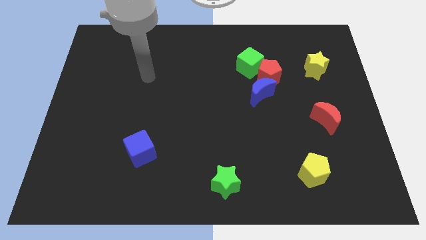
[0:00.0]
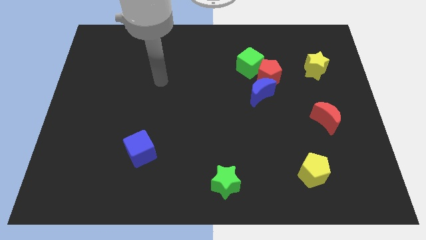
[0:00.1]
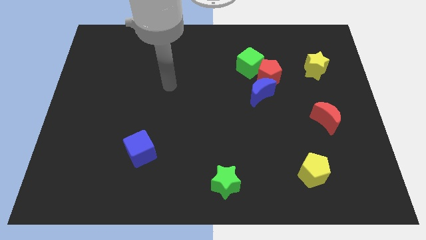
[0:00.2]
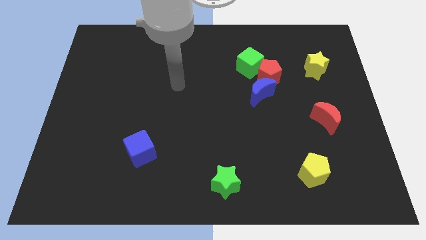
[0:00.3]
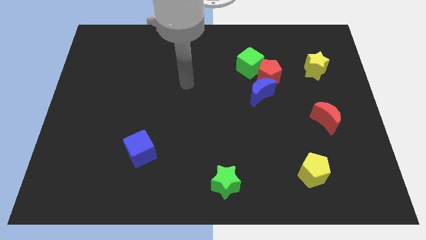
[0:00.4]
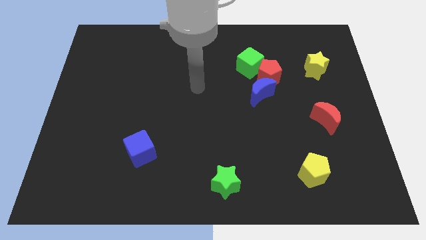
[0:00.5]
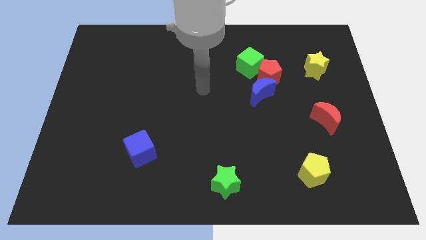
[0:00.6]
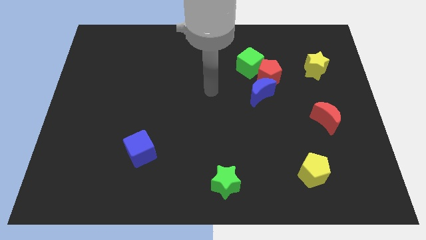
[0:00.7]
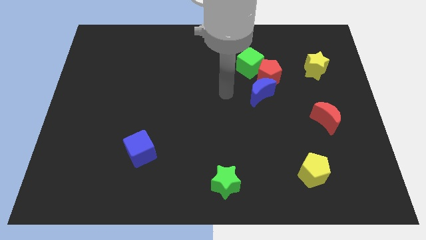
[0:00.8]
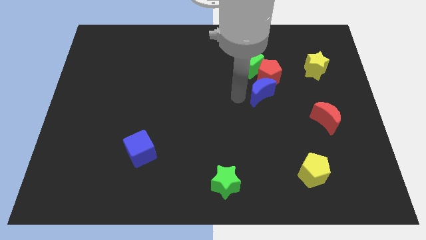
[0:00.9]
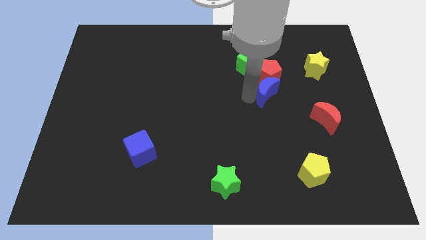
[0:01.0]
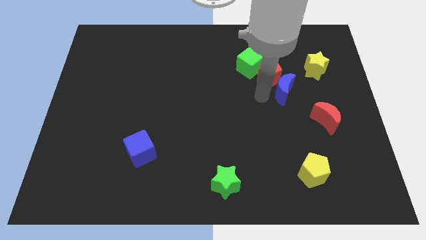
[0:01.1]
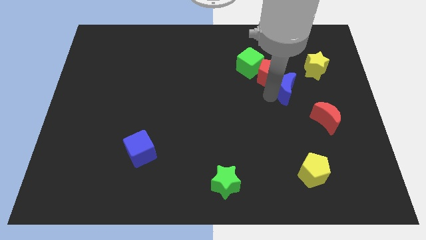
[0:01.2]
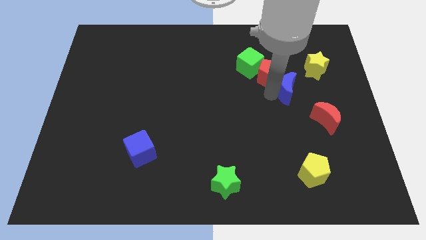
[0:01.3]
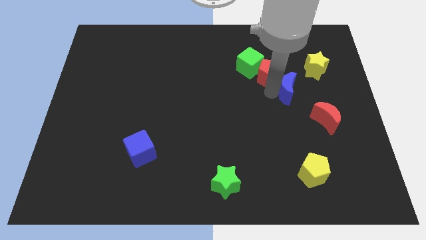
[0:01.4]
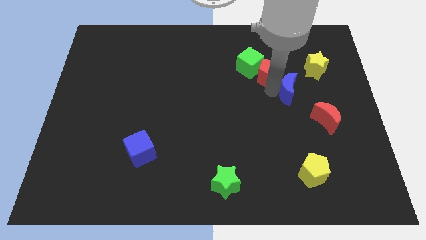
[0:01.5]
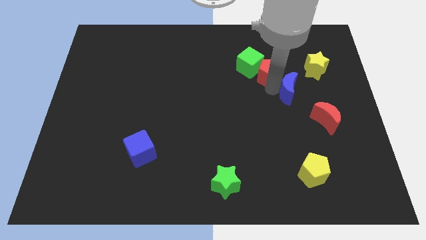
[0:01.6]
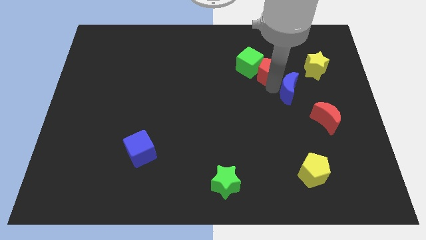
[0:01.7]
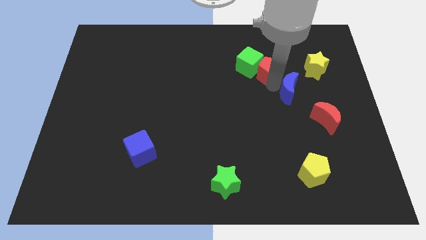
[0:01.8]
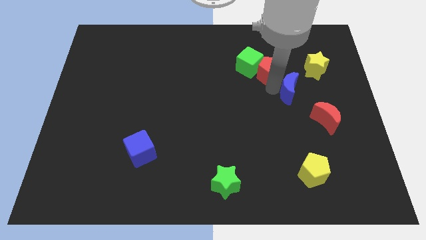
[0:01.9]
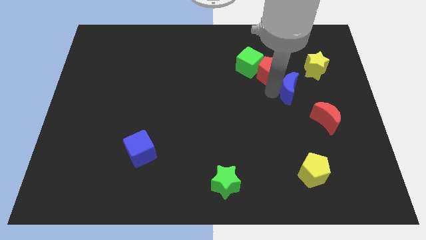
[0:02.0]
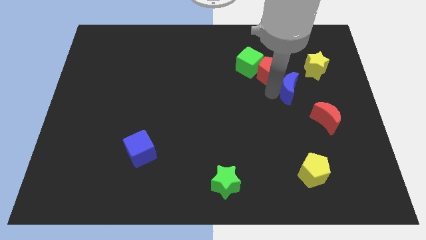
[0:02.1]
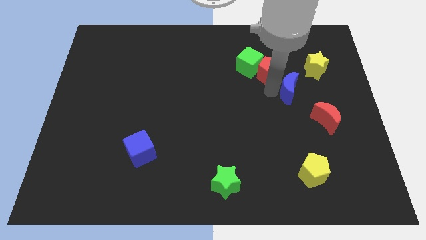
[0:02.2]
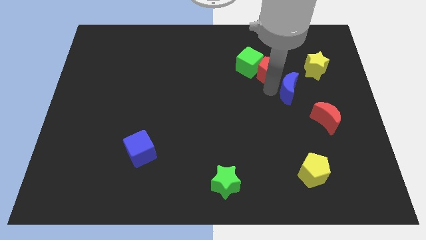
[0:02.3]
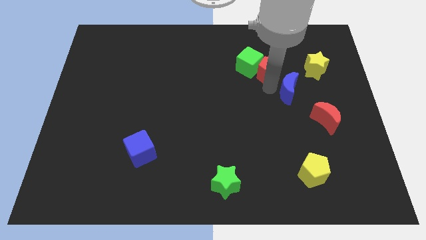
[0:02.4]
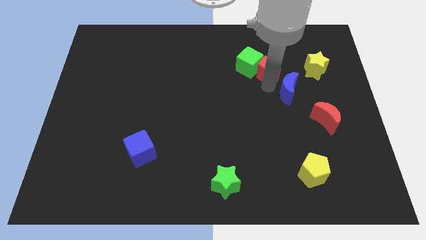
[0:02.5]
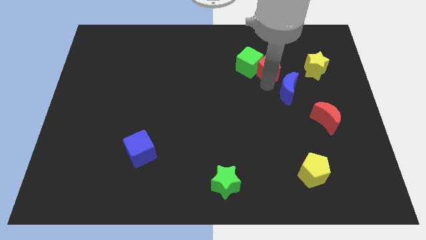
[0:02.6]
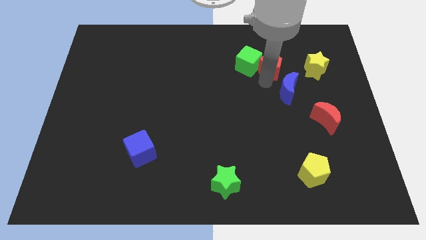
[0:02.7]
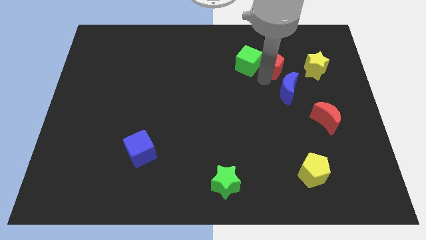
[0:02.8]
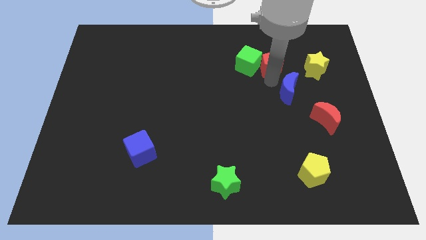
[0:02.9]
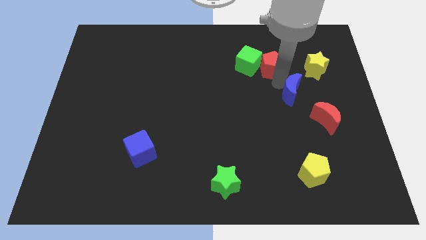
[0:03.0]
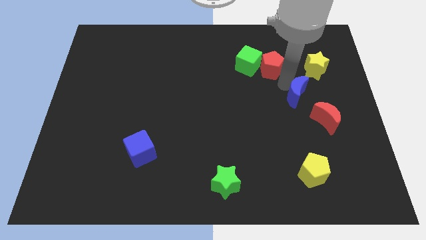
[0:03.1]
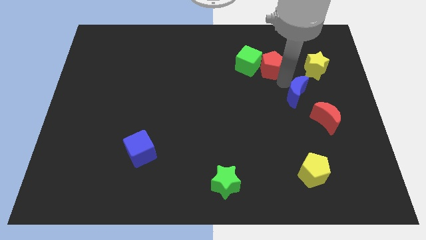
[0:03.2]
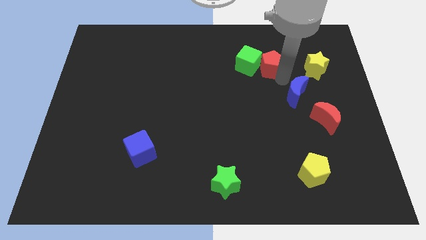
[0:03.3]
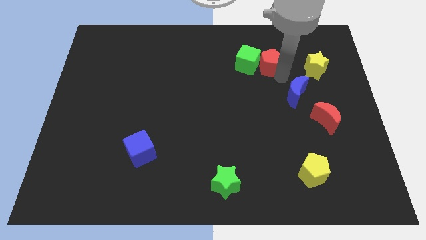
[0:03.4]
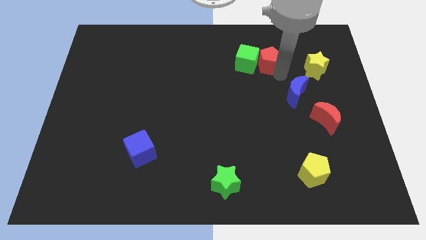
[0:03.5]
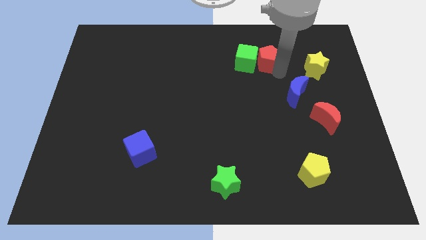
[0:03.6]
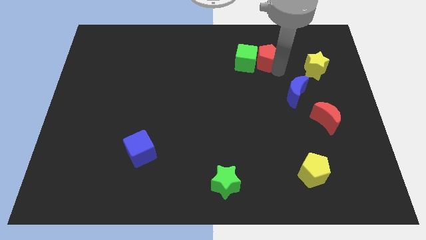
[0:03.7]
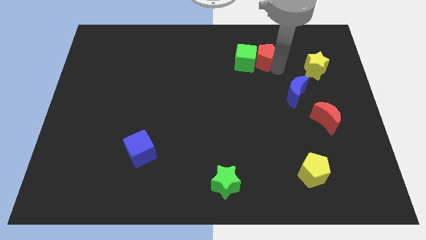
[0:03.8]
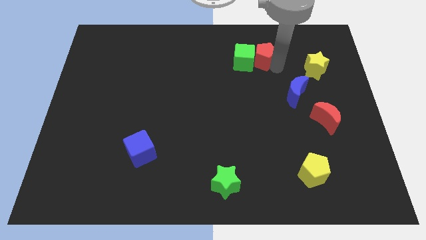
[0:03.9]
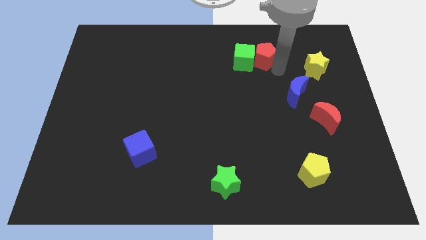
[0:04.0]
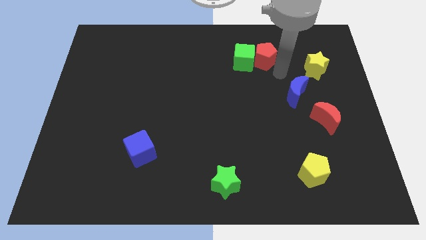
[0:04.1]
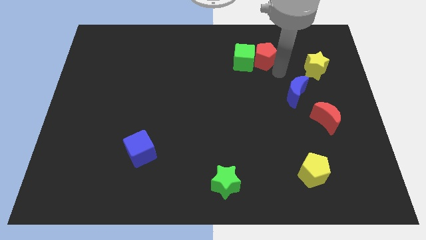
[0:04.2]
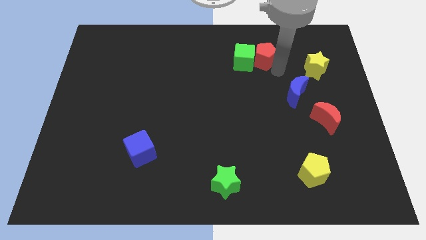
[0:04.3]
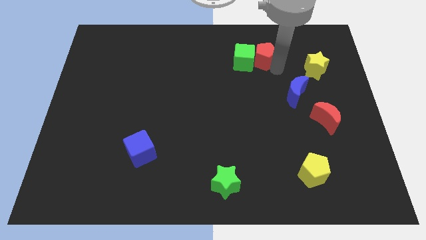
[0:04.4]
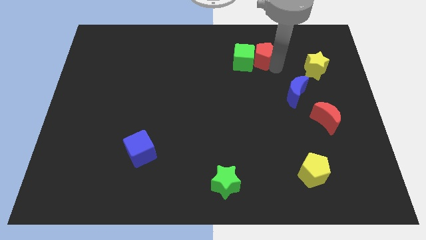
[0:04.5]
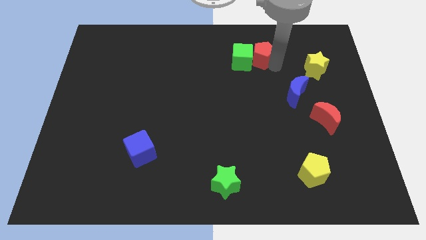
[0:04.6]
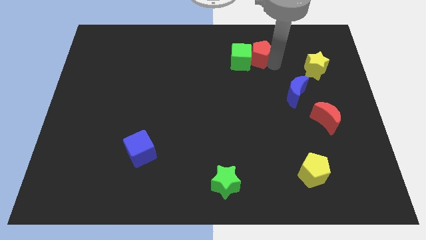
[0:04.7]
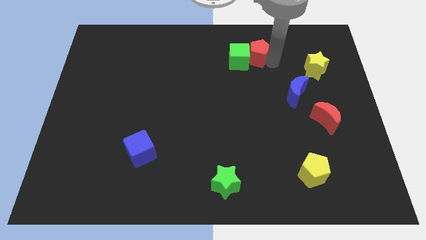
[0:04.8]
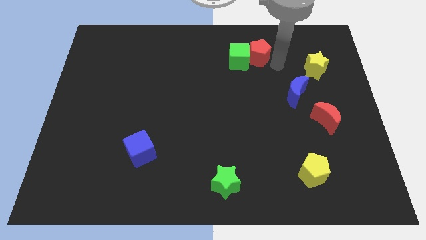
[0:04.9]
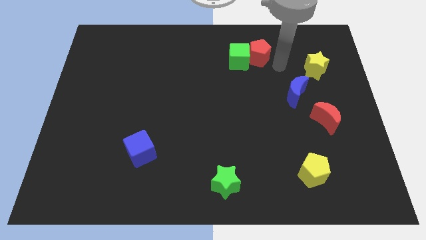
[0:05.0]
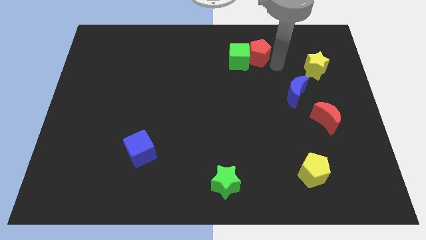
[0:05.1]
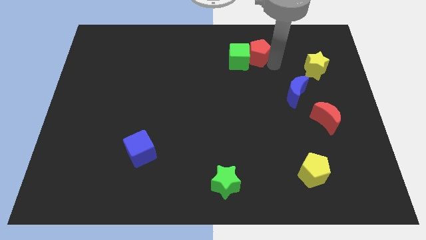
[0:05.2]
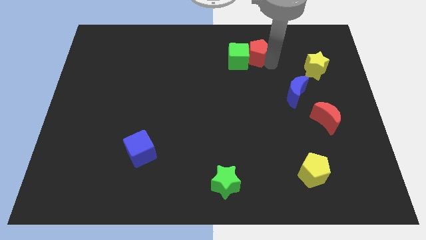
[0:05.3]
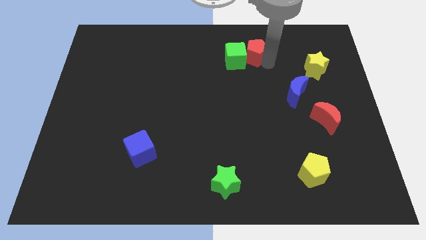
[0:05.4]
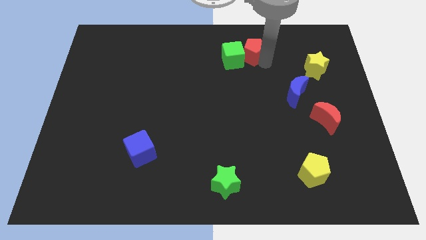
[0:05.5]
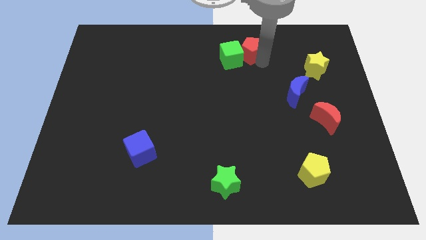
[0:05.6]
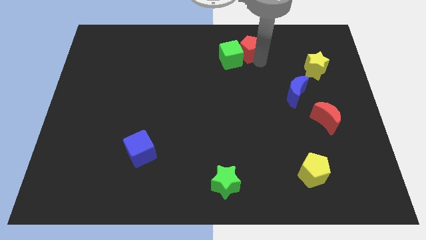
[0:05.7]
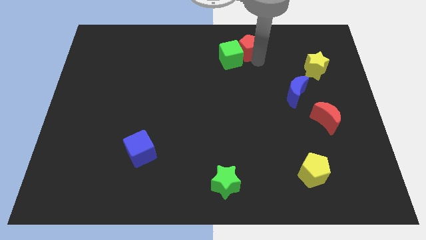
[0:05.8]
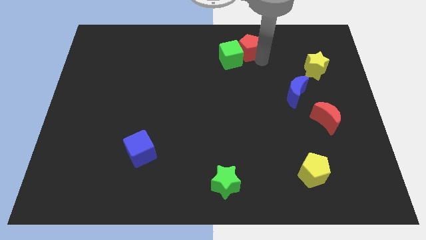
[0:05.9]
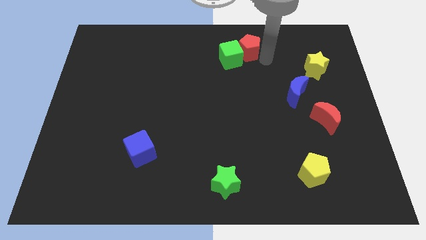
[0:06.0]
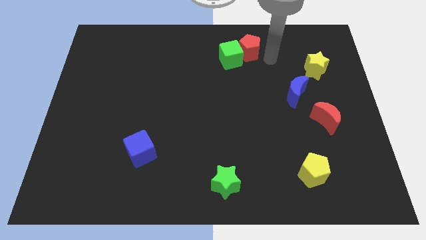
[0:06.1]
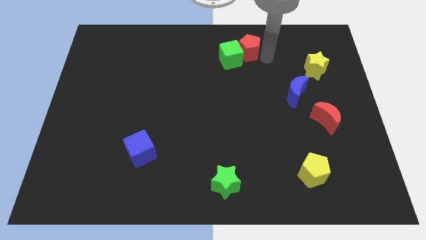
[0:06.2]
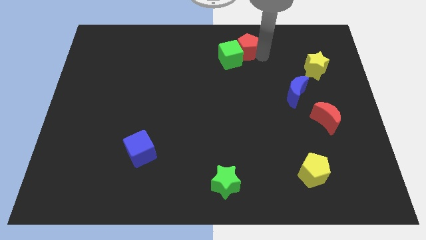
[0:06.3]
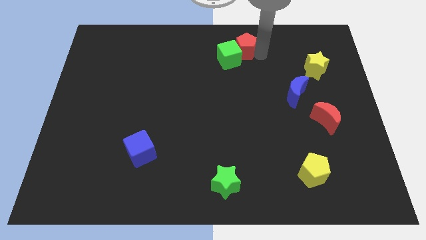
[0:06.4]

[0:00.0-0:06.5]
slide the red pentagon to the top side

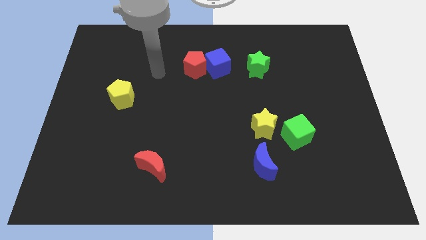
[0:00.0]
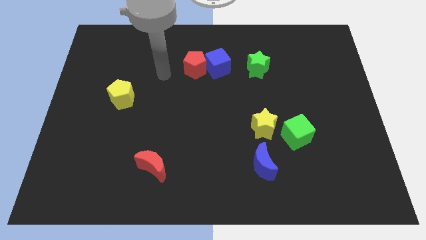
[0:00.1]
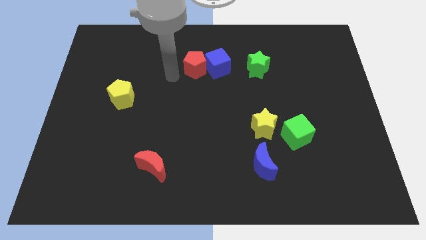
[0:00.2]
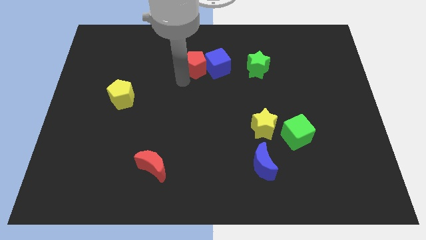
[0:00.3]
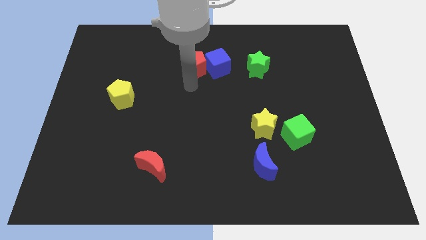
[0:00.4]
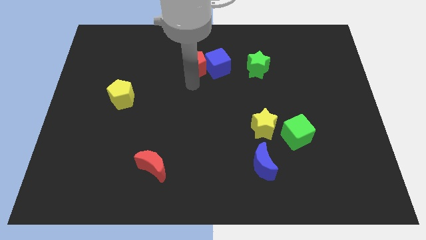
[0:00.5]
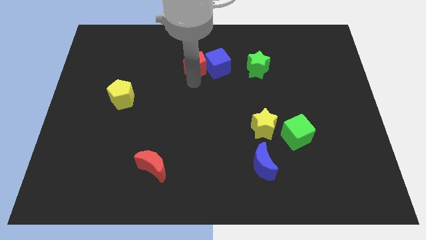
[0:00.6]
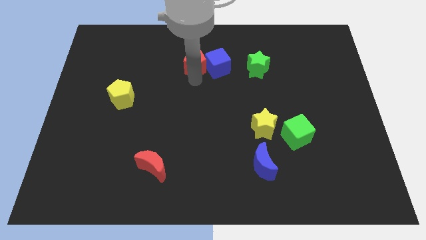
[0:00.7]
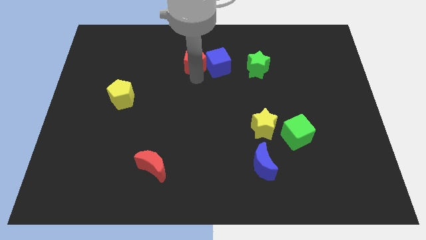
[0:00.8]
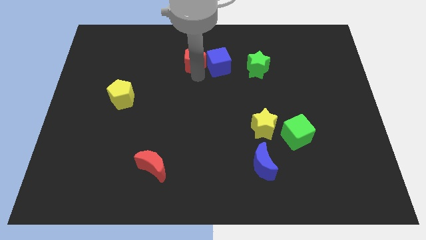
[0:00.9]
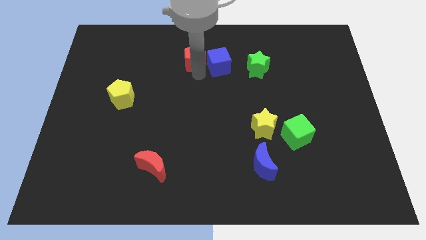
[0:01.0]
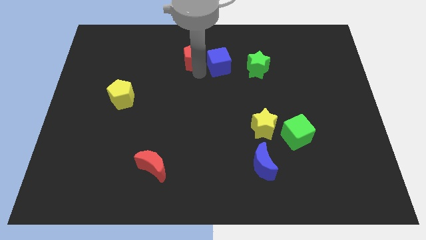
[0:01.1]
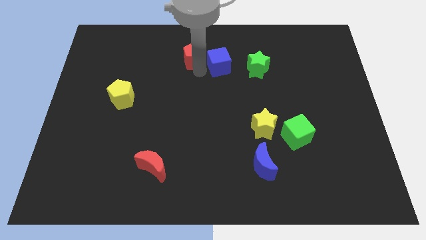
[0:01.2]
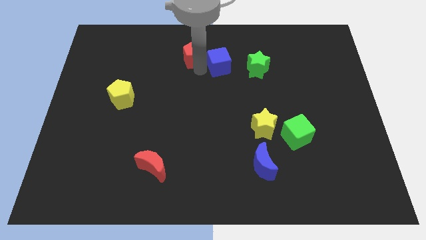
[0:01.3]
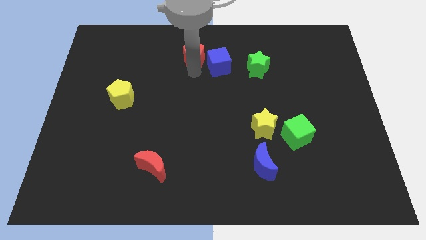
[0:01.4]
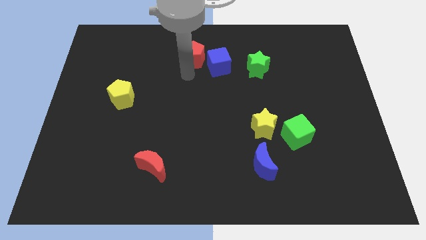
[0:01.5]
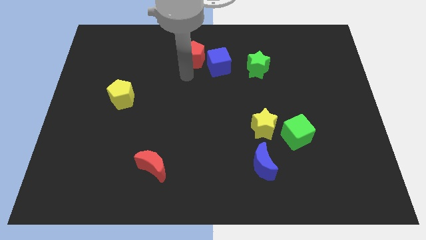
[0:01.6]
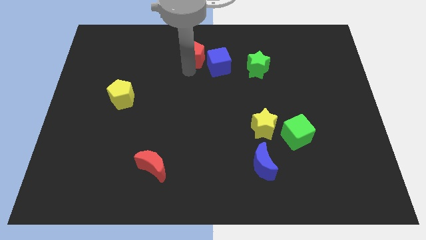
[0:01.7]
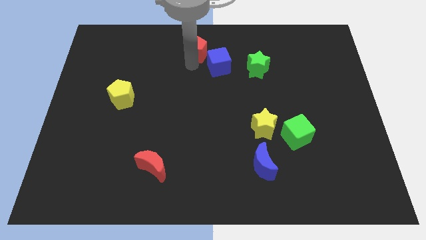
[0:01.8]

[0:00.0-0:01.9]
move the red pentagon to the top side
